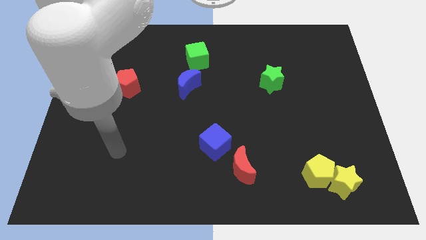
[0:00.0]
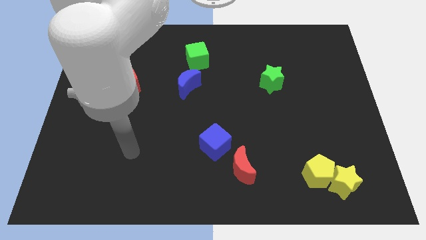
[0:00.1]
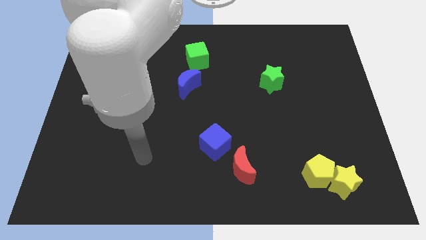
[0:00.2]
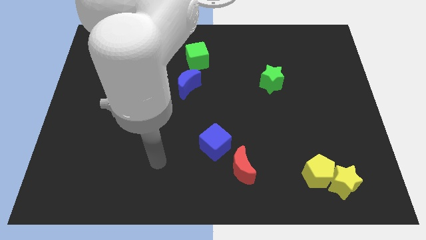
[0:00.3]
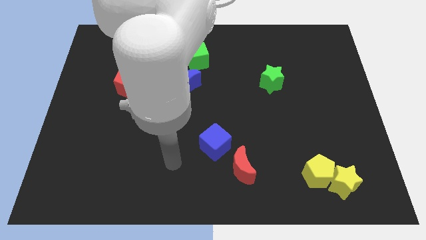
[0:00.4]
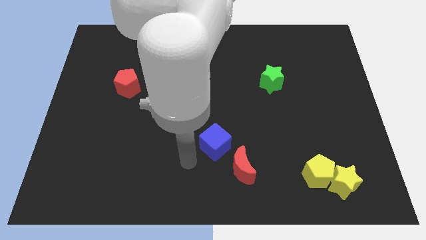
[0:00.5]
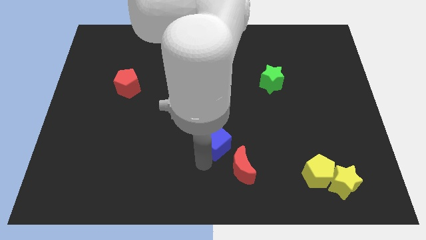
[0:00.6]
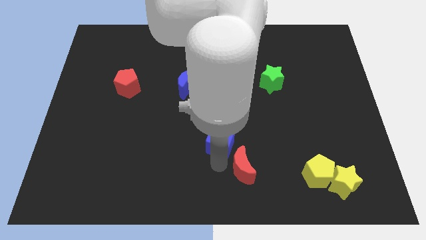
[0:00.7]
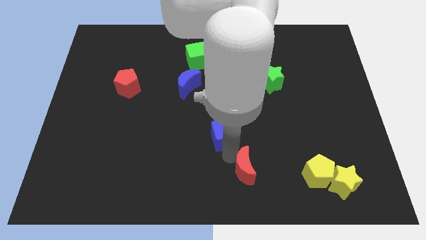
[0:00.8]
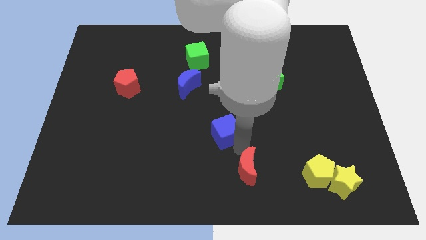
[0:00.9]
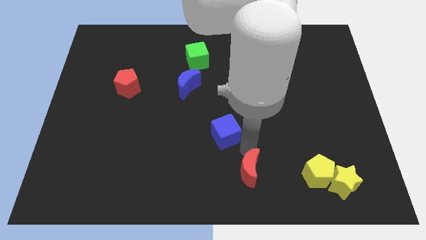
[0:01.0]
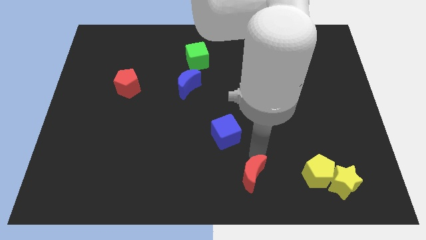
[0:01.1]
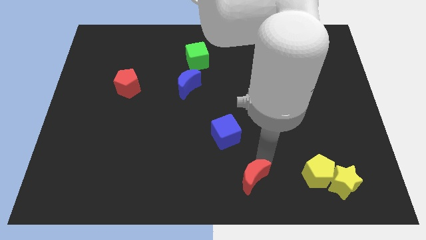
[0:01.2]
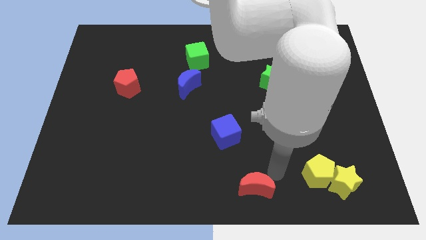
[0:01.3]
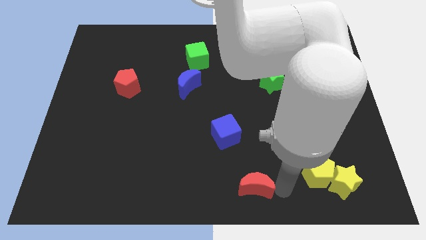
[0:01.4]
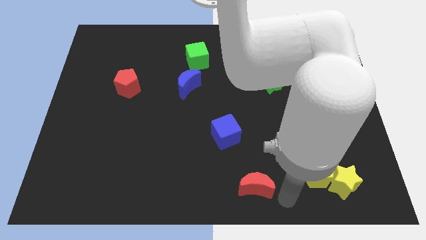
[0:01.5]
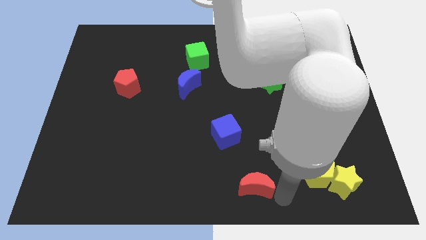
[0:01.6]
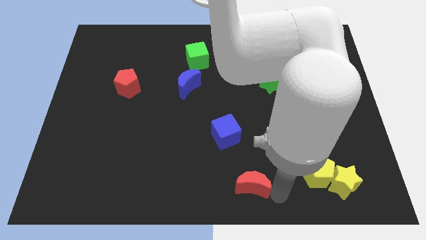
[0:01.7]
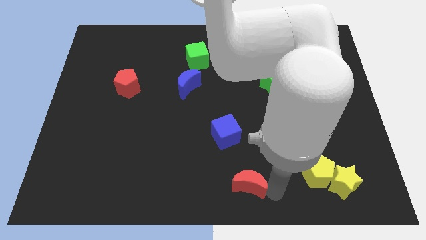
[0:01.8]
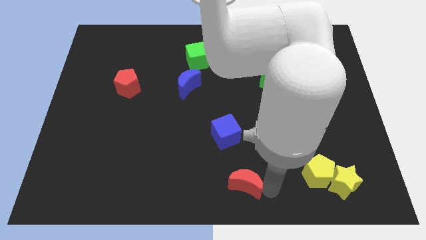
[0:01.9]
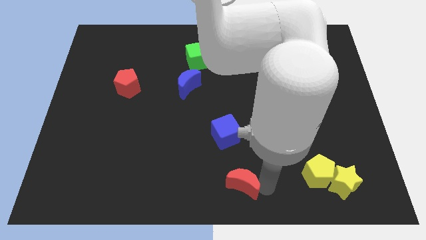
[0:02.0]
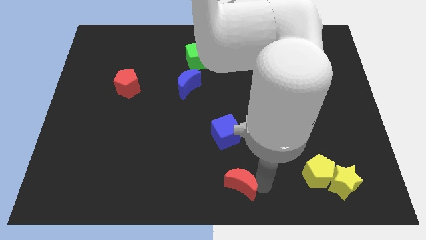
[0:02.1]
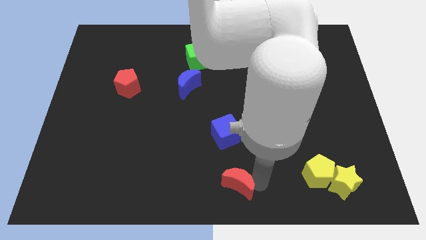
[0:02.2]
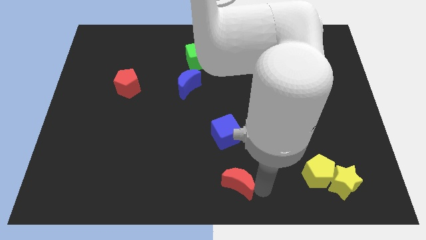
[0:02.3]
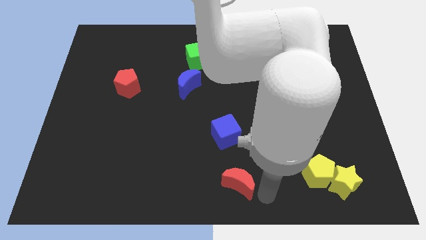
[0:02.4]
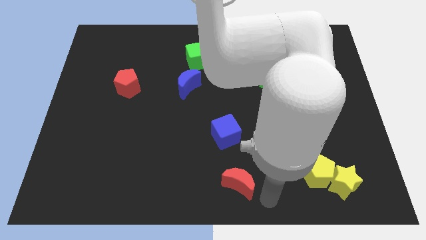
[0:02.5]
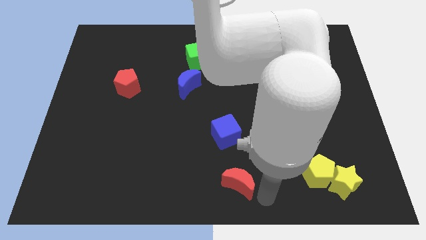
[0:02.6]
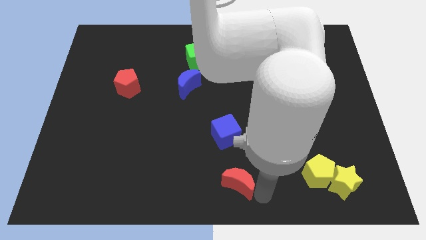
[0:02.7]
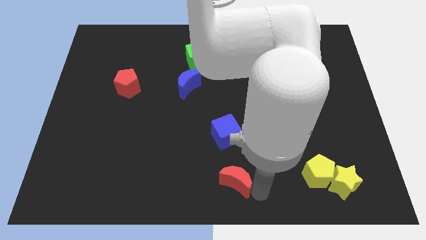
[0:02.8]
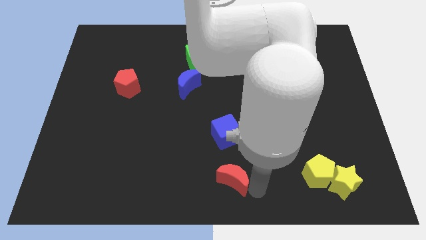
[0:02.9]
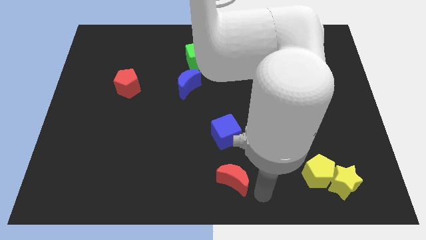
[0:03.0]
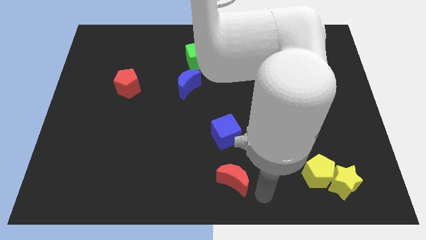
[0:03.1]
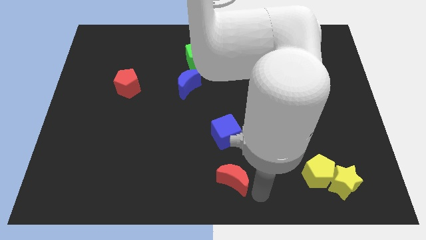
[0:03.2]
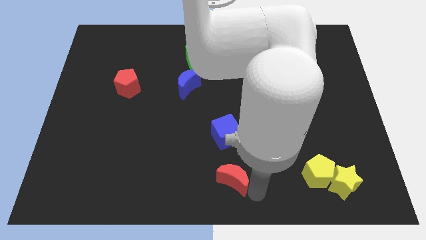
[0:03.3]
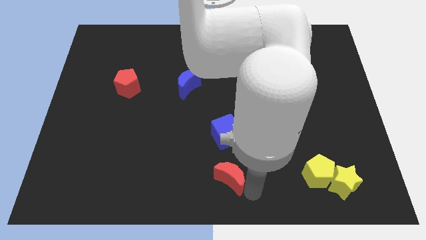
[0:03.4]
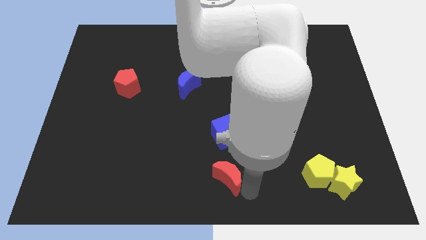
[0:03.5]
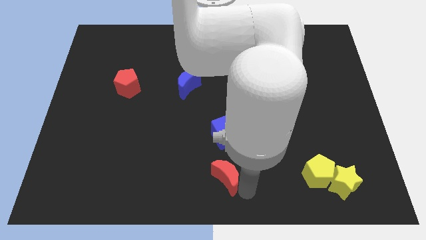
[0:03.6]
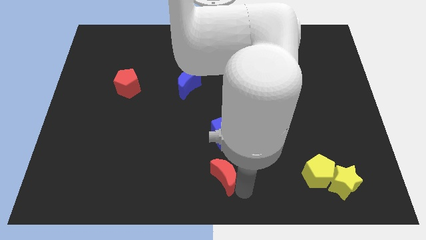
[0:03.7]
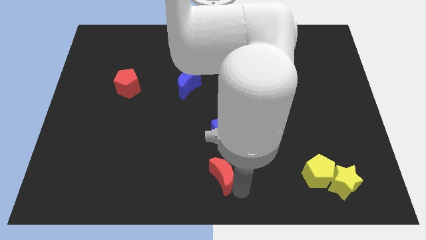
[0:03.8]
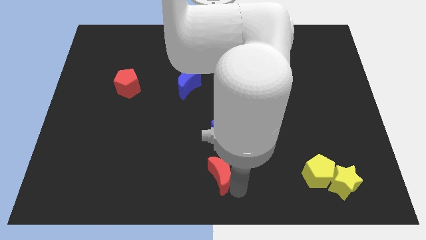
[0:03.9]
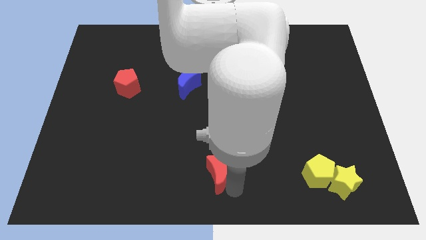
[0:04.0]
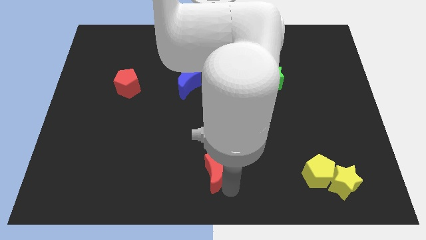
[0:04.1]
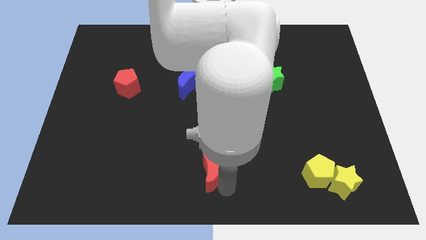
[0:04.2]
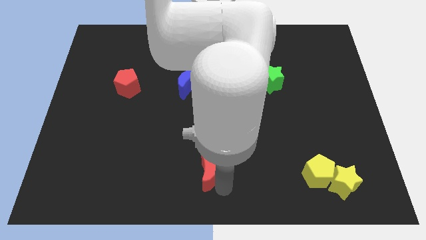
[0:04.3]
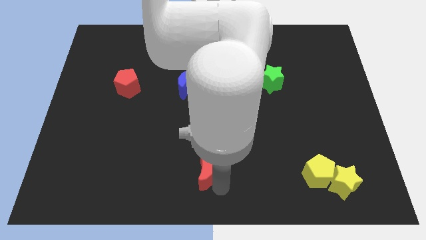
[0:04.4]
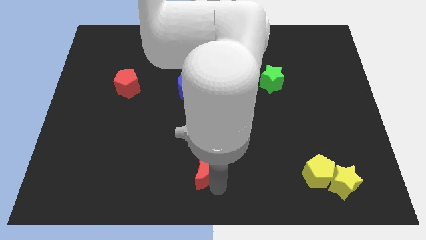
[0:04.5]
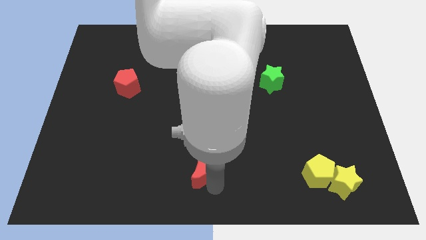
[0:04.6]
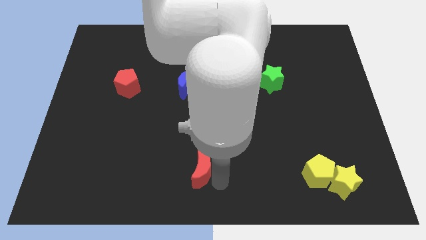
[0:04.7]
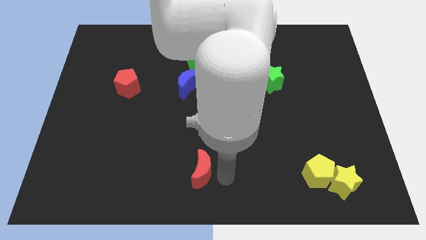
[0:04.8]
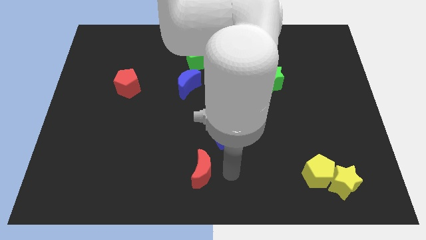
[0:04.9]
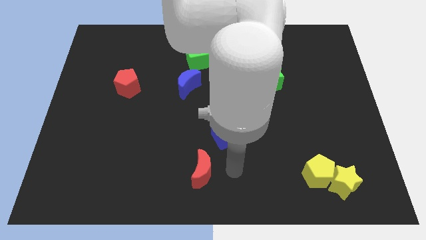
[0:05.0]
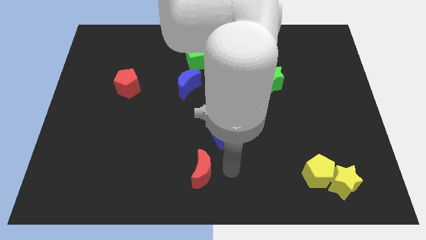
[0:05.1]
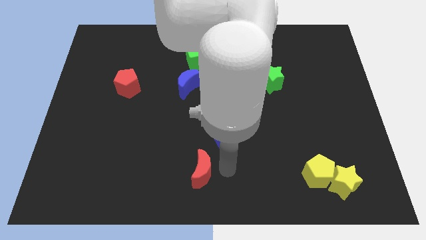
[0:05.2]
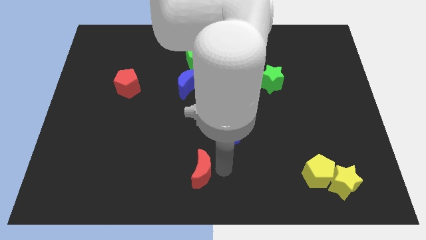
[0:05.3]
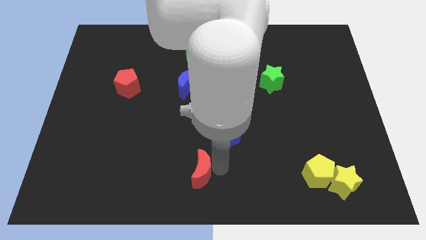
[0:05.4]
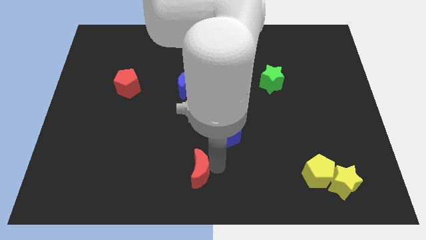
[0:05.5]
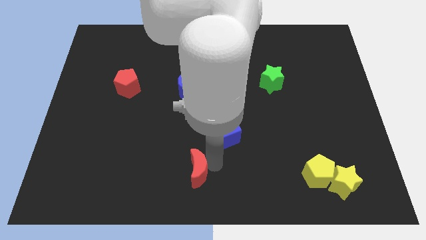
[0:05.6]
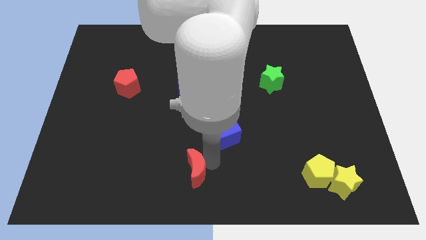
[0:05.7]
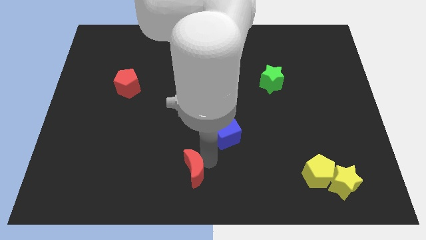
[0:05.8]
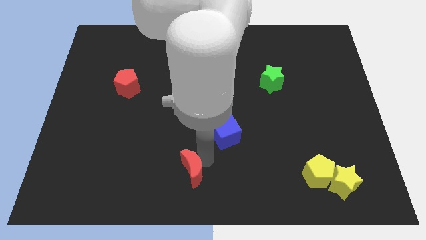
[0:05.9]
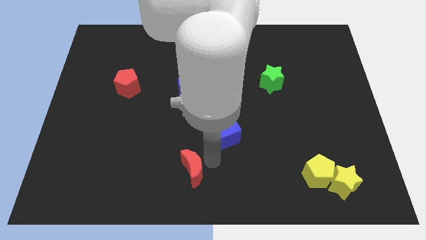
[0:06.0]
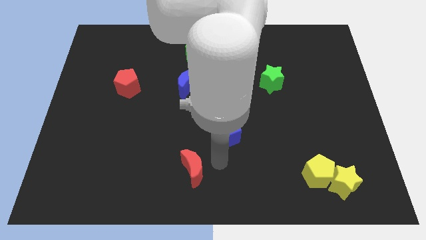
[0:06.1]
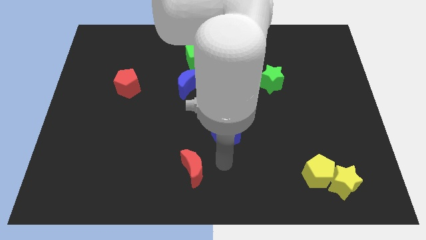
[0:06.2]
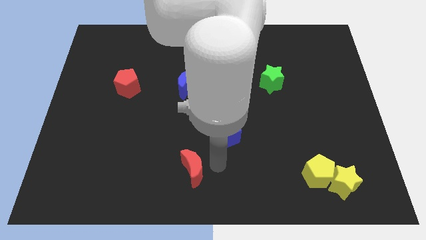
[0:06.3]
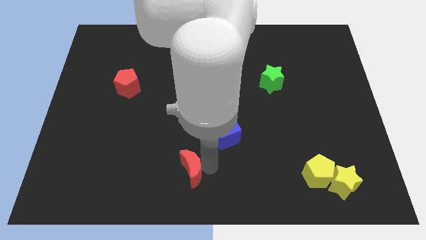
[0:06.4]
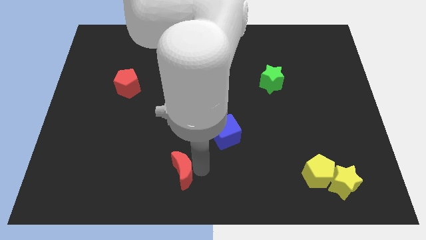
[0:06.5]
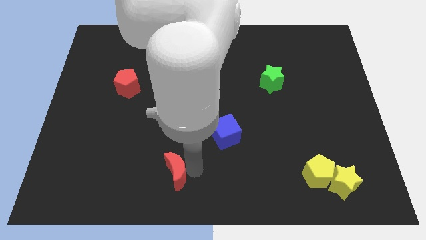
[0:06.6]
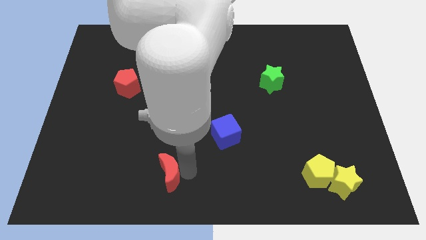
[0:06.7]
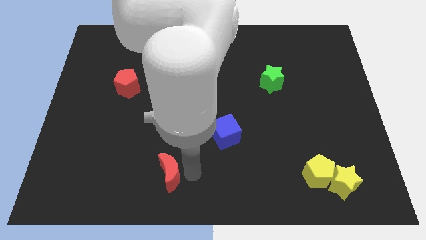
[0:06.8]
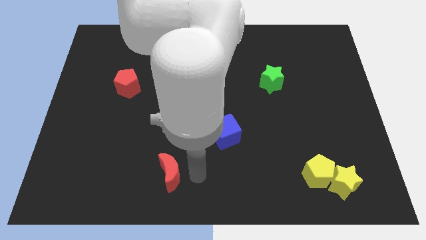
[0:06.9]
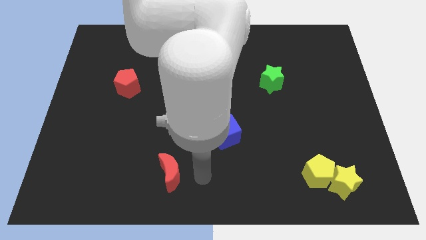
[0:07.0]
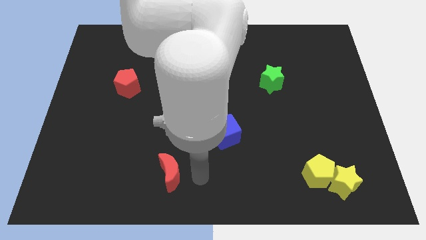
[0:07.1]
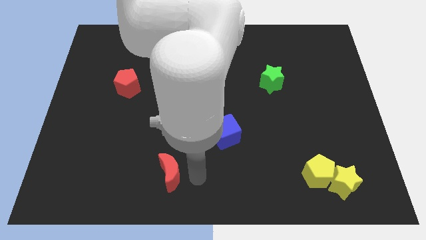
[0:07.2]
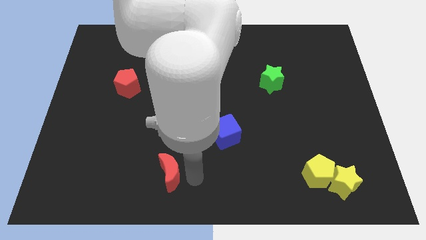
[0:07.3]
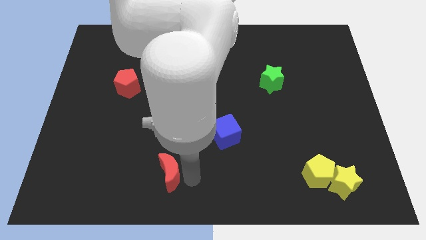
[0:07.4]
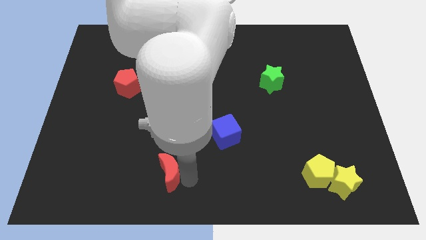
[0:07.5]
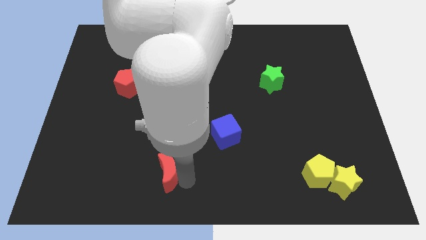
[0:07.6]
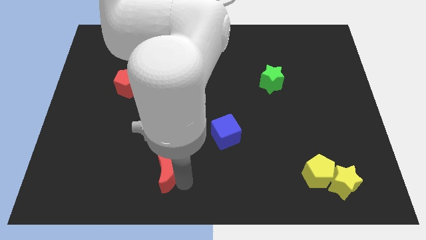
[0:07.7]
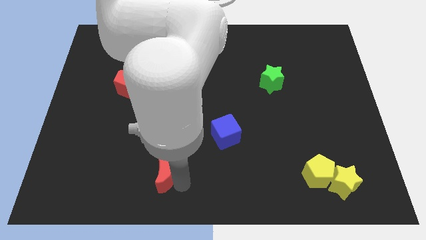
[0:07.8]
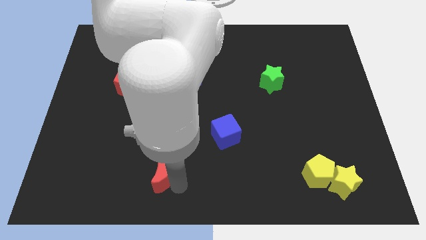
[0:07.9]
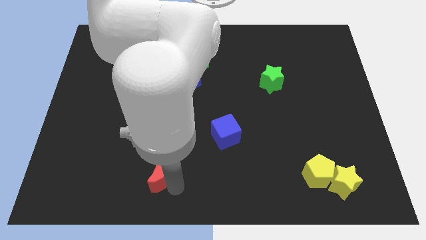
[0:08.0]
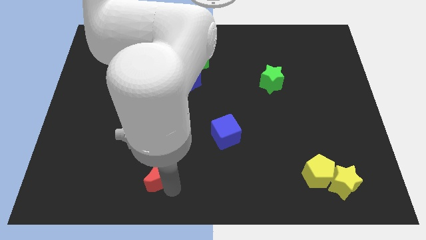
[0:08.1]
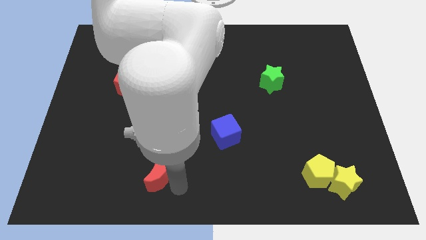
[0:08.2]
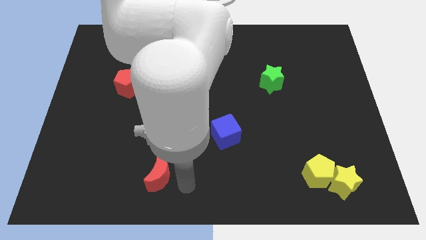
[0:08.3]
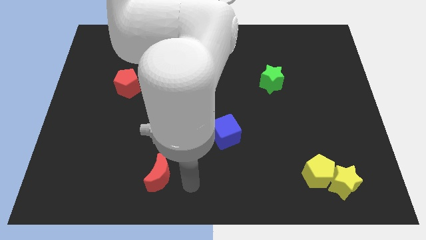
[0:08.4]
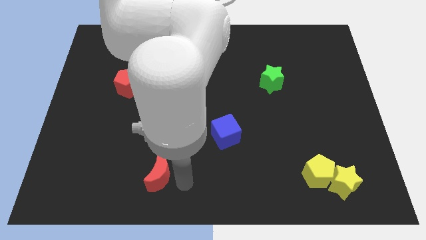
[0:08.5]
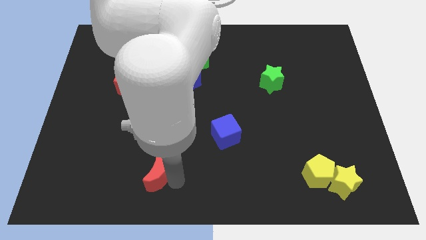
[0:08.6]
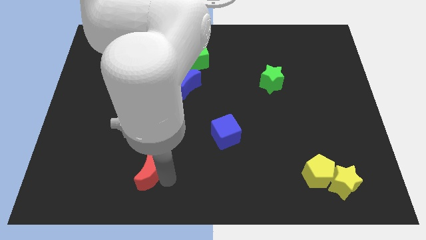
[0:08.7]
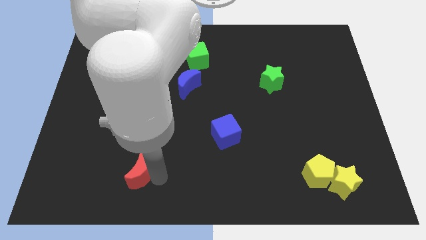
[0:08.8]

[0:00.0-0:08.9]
push the red moon to the left
